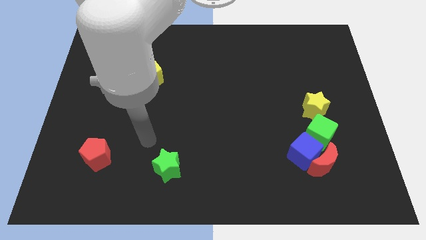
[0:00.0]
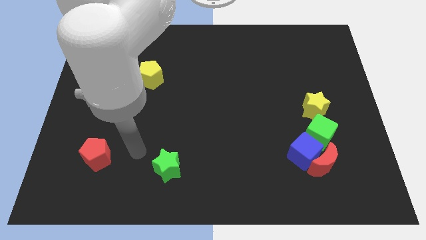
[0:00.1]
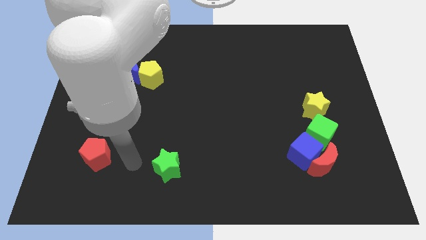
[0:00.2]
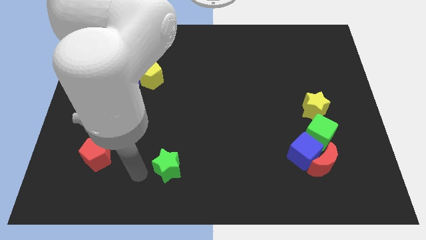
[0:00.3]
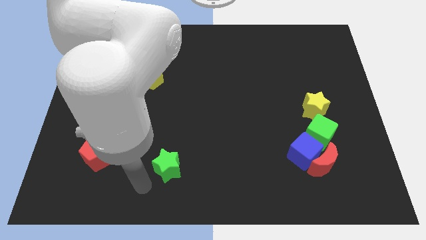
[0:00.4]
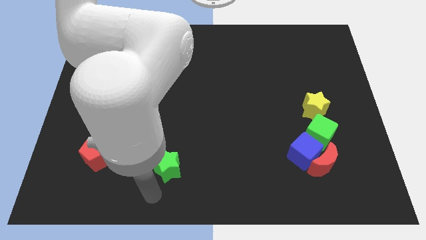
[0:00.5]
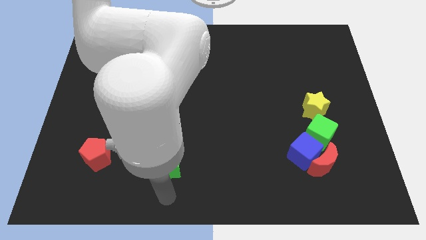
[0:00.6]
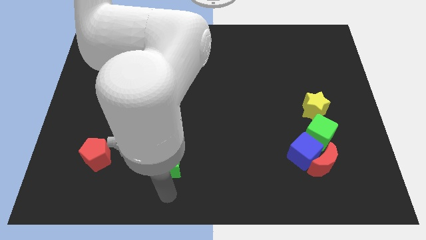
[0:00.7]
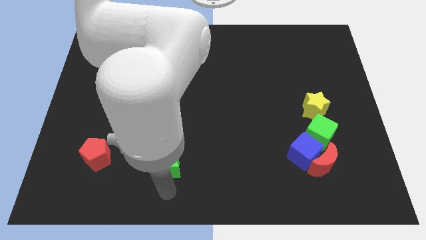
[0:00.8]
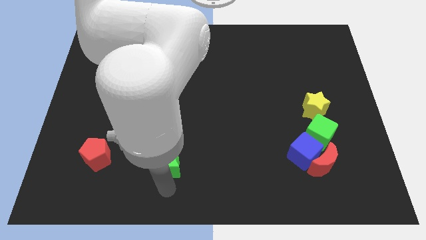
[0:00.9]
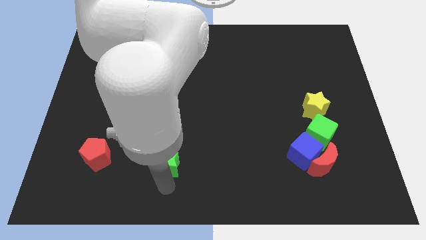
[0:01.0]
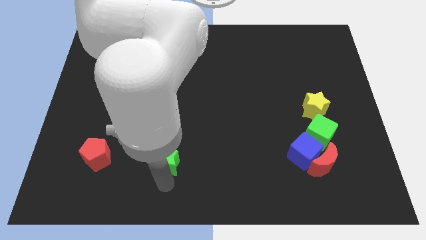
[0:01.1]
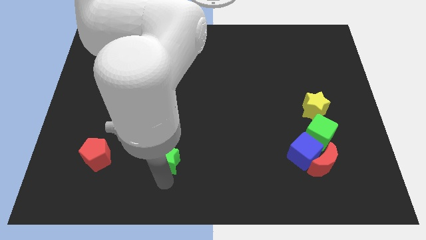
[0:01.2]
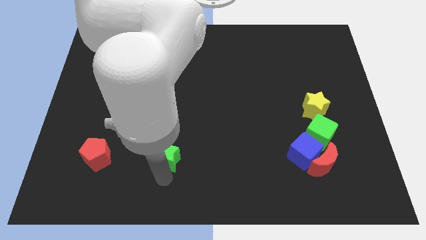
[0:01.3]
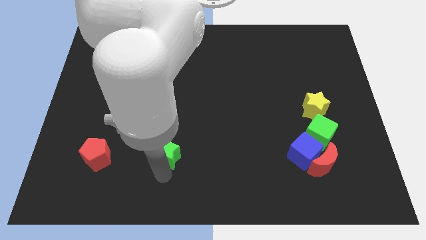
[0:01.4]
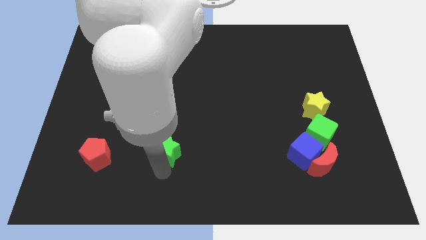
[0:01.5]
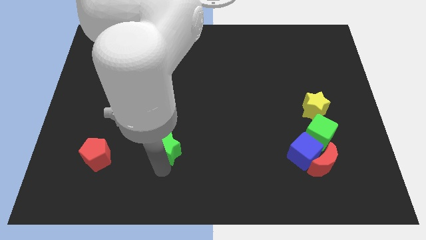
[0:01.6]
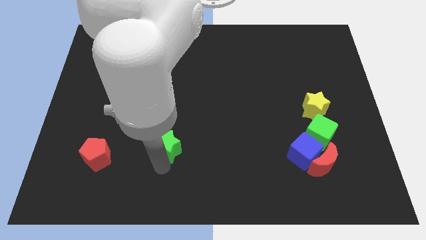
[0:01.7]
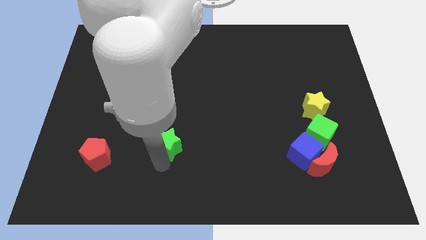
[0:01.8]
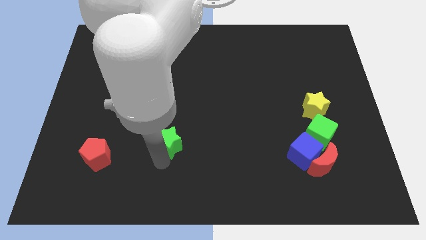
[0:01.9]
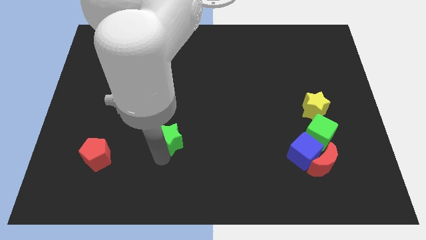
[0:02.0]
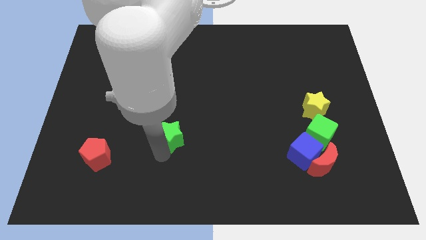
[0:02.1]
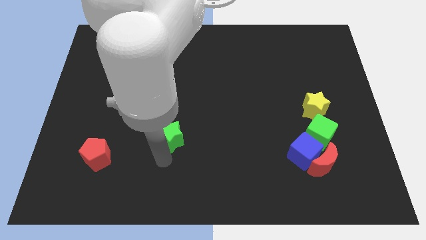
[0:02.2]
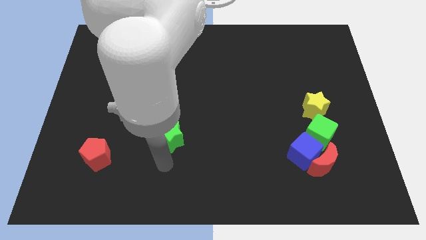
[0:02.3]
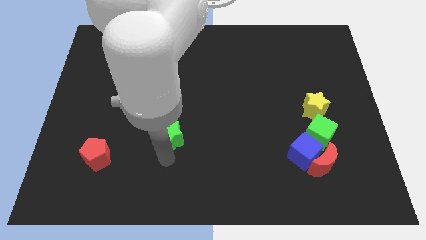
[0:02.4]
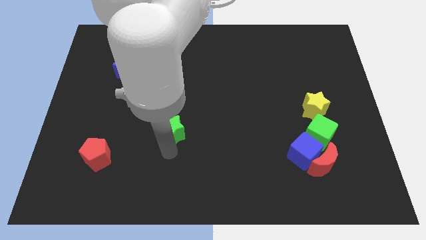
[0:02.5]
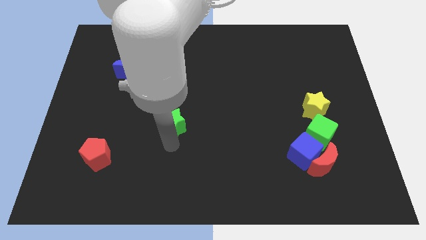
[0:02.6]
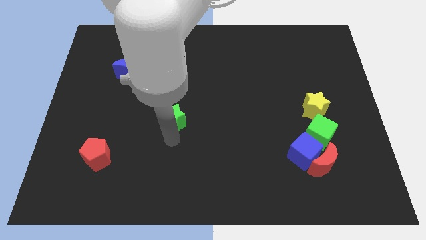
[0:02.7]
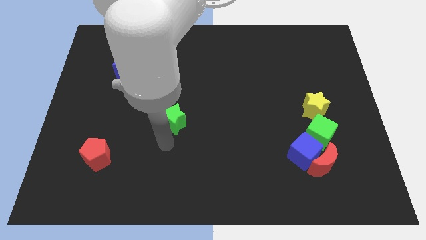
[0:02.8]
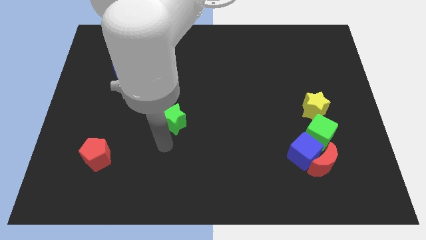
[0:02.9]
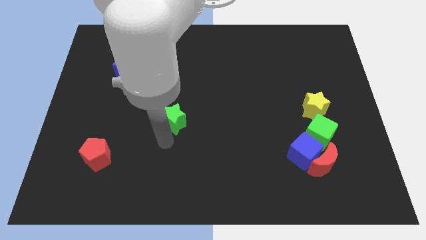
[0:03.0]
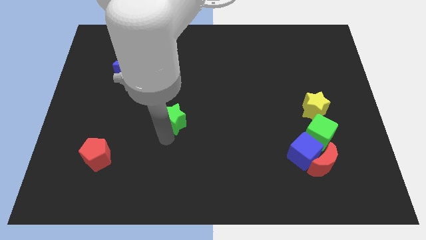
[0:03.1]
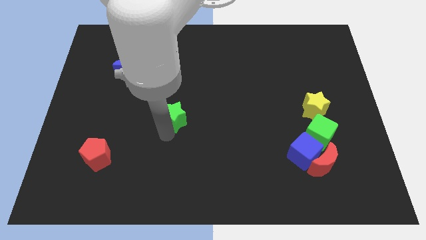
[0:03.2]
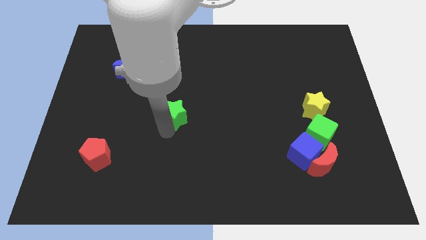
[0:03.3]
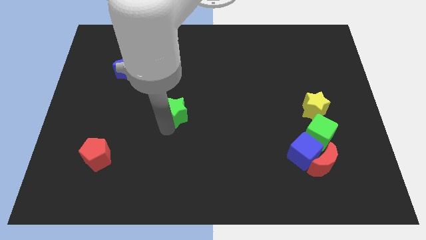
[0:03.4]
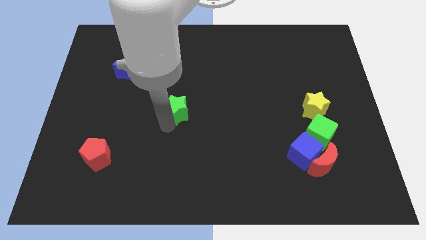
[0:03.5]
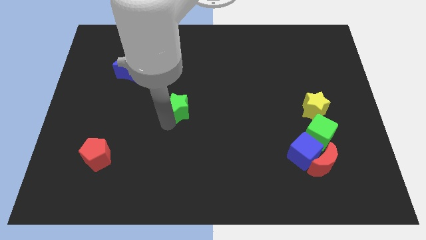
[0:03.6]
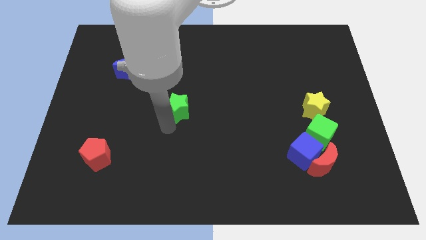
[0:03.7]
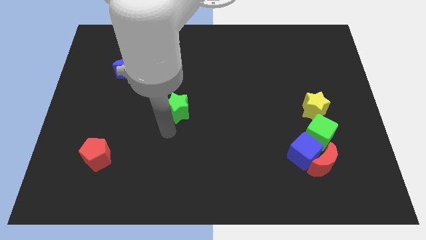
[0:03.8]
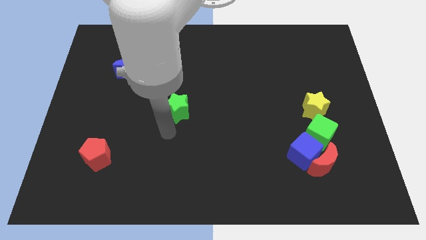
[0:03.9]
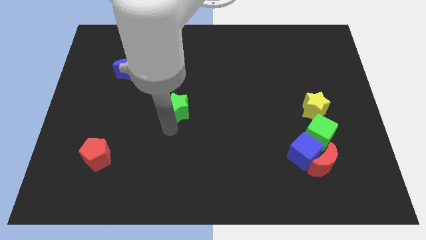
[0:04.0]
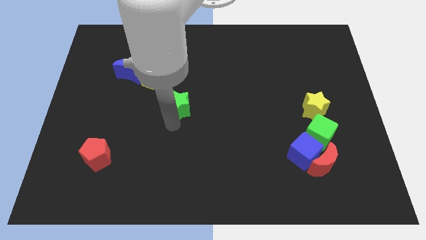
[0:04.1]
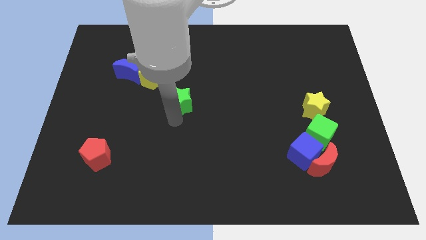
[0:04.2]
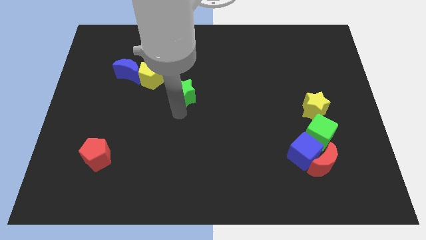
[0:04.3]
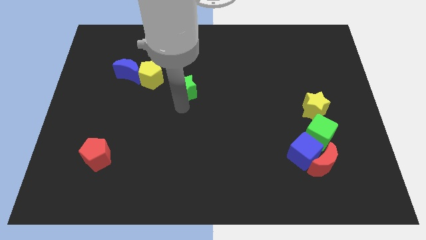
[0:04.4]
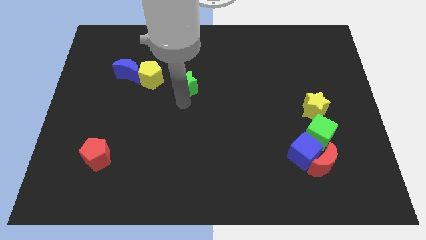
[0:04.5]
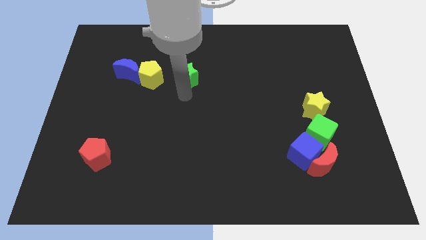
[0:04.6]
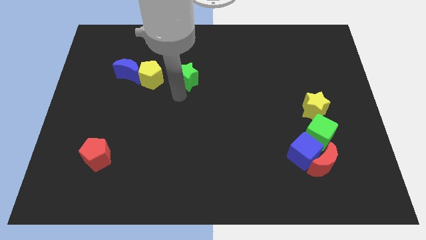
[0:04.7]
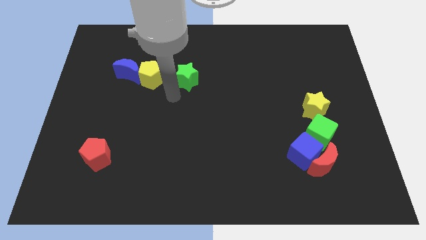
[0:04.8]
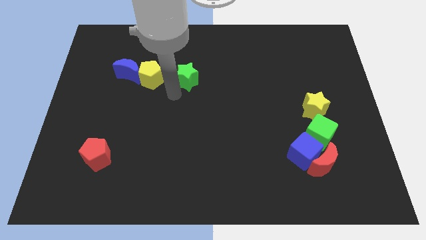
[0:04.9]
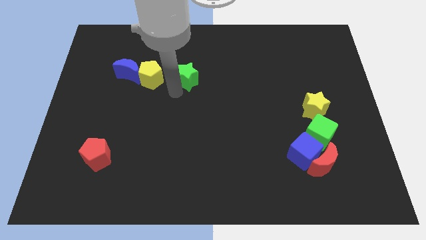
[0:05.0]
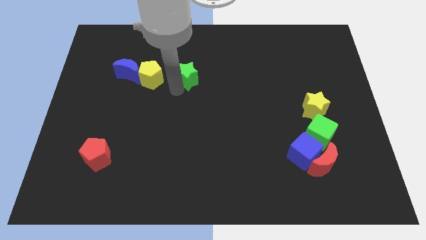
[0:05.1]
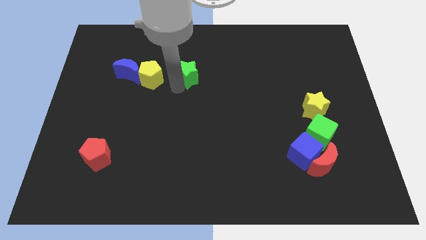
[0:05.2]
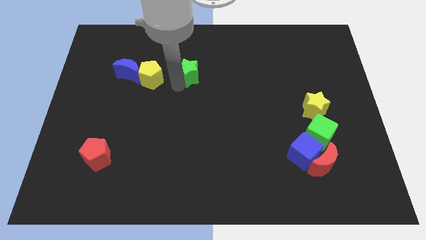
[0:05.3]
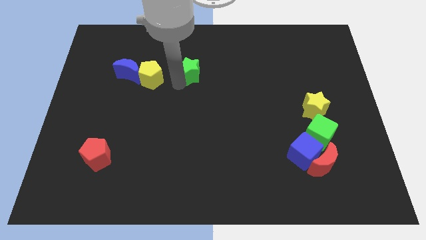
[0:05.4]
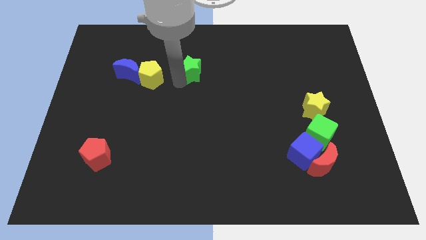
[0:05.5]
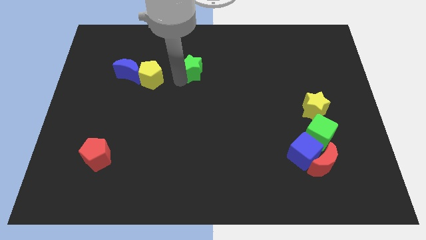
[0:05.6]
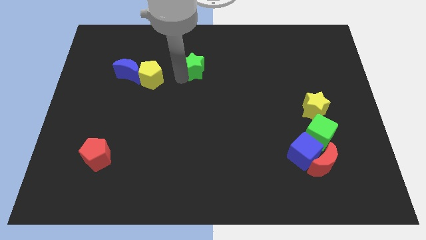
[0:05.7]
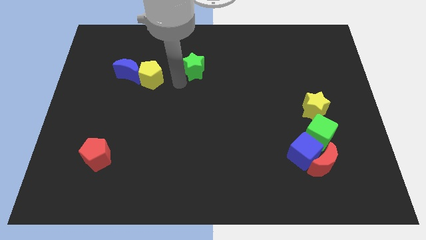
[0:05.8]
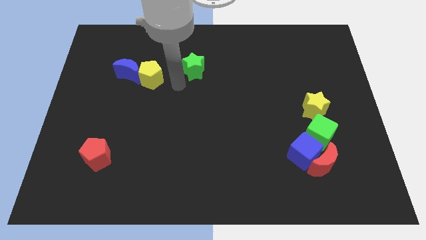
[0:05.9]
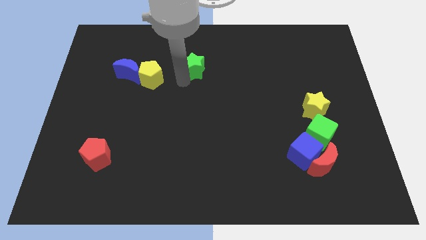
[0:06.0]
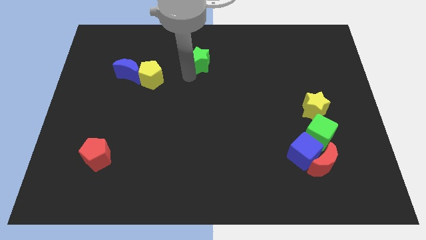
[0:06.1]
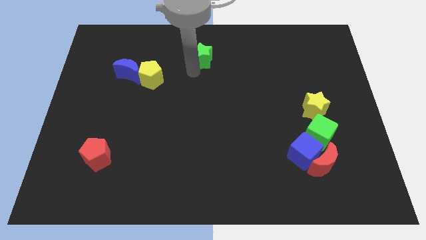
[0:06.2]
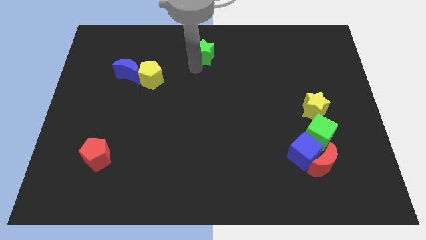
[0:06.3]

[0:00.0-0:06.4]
move the green star to the top side

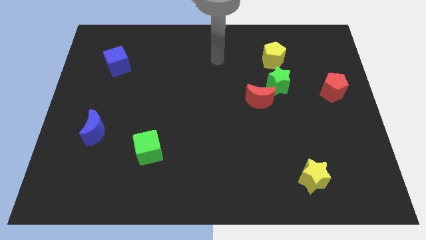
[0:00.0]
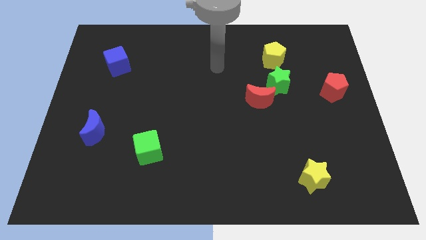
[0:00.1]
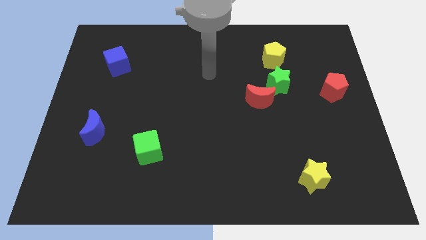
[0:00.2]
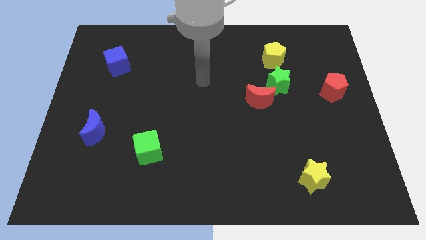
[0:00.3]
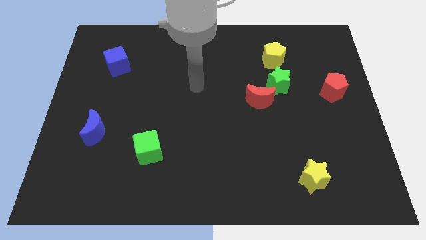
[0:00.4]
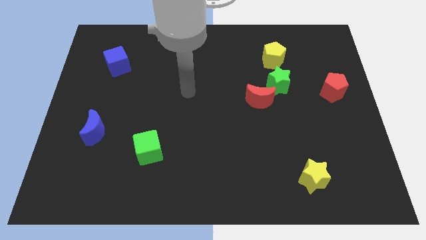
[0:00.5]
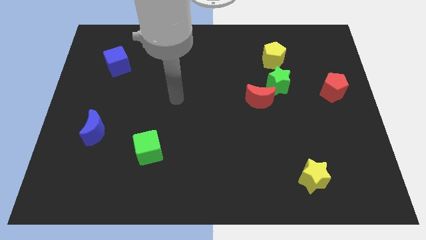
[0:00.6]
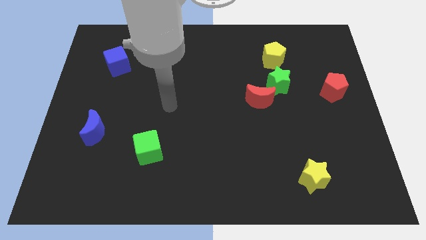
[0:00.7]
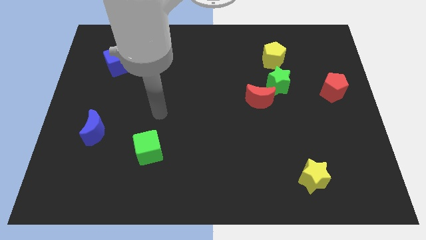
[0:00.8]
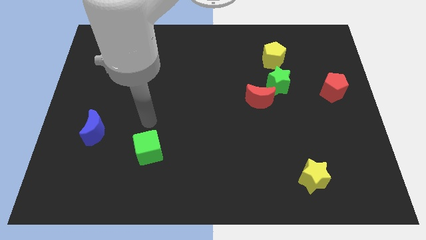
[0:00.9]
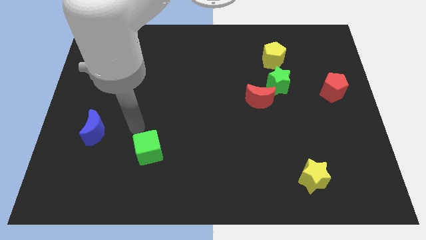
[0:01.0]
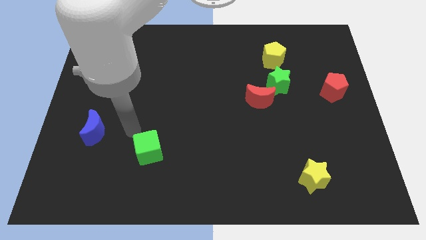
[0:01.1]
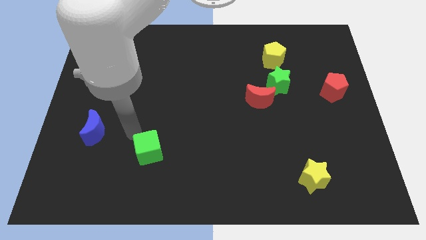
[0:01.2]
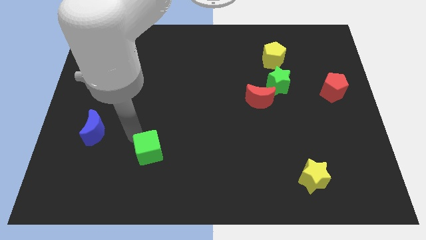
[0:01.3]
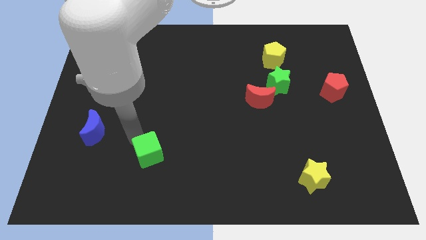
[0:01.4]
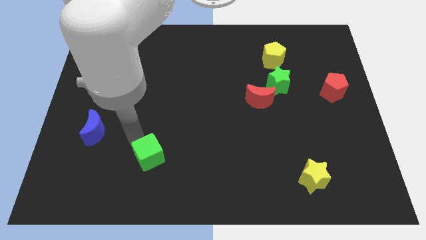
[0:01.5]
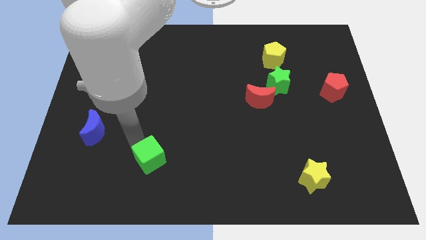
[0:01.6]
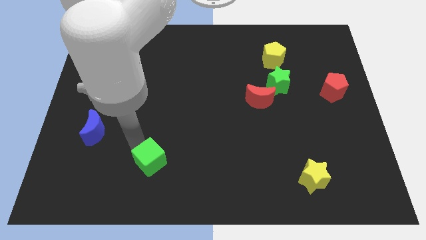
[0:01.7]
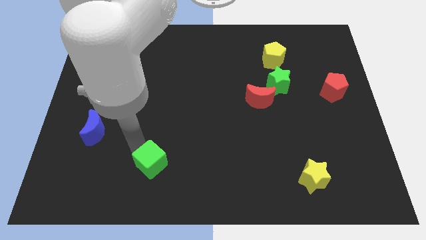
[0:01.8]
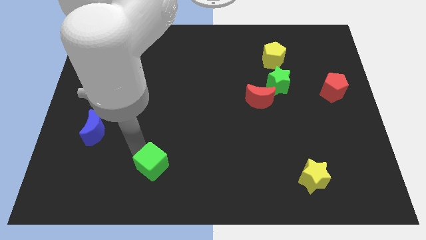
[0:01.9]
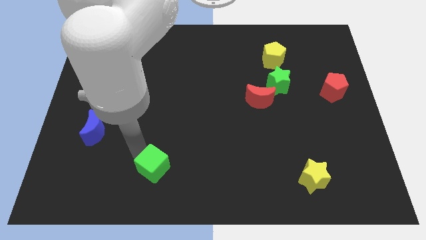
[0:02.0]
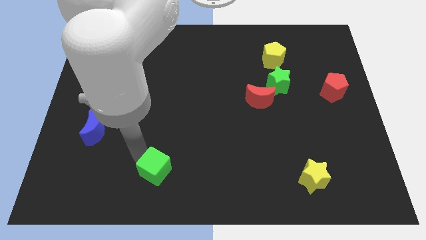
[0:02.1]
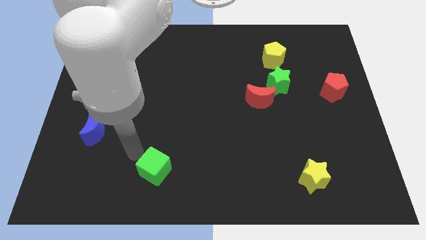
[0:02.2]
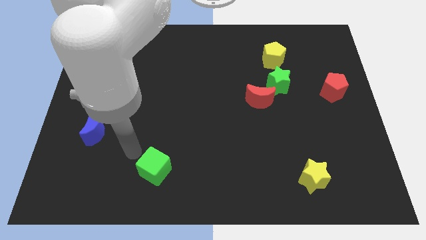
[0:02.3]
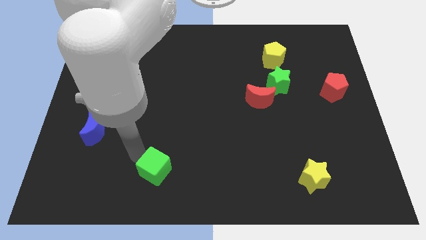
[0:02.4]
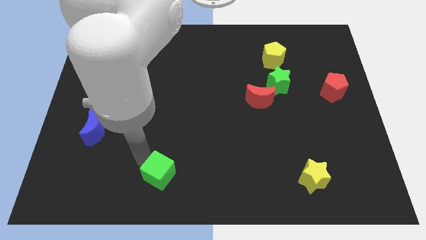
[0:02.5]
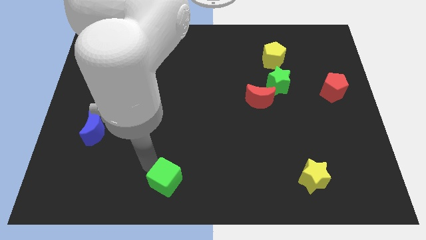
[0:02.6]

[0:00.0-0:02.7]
put the green cube to the bottom
